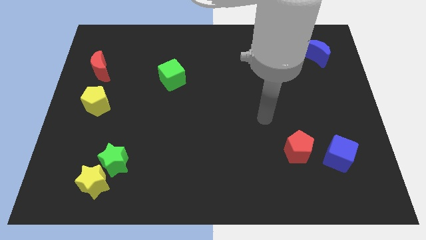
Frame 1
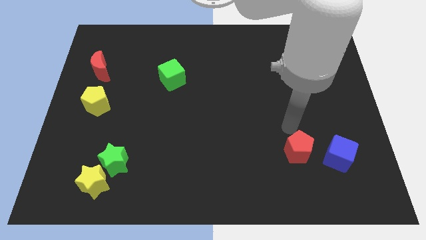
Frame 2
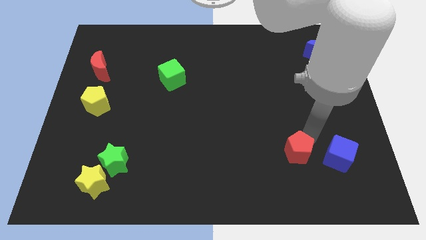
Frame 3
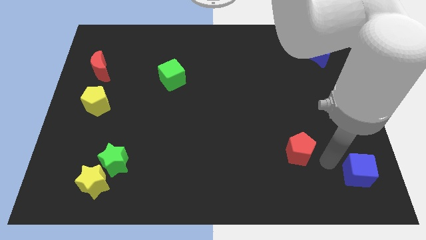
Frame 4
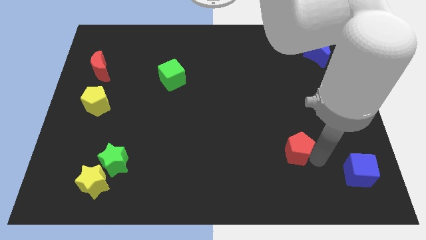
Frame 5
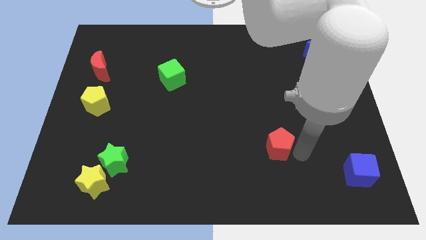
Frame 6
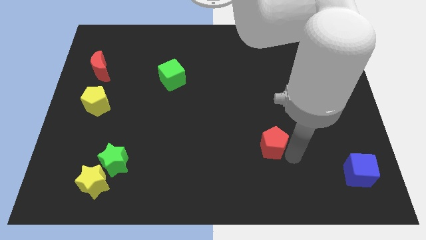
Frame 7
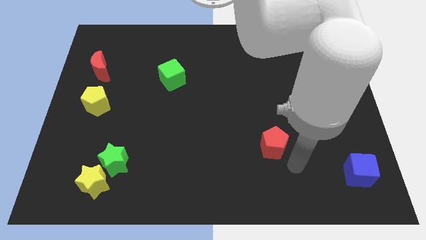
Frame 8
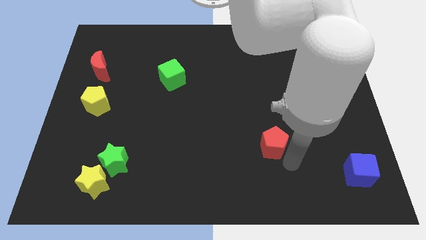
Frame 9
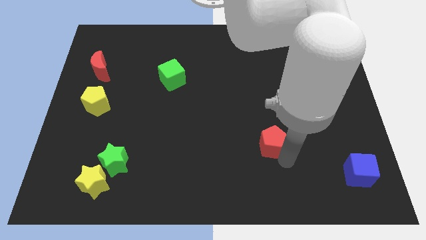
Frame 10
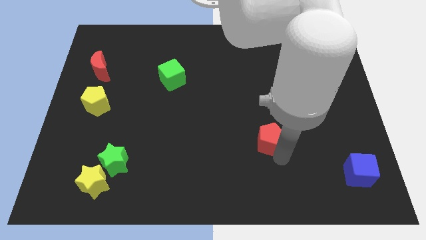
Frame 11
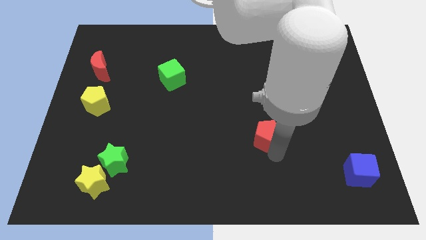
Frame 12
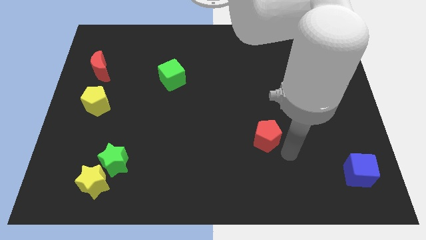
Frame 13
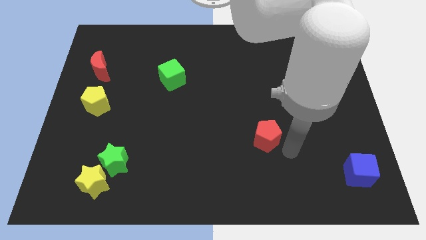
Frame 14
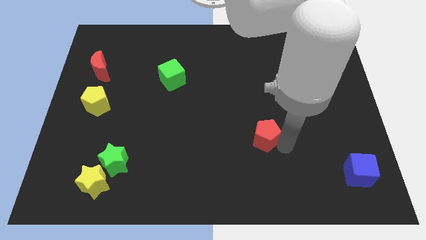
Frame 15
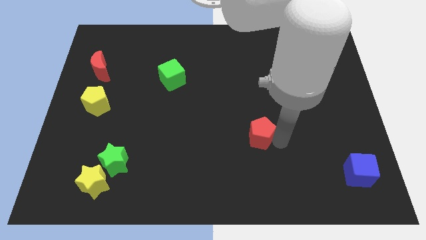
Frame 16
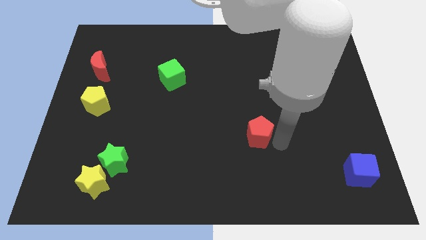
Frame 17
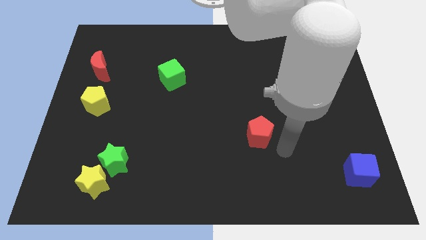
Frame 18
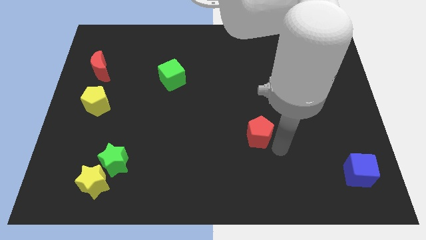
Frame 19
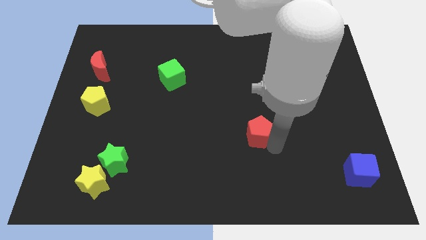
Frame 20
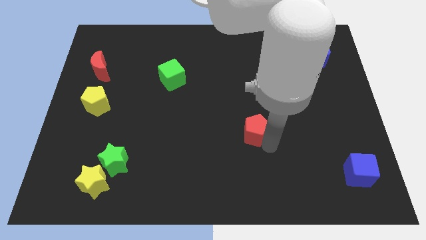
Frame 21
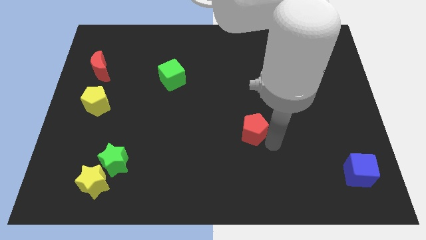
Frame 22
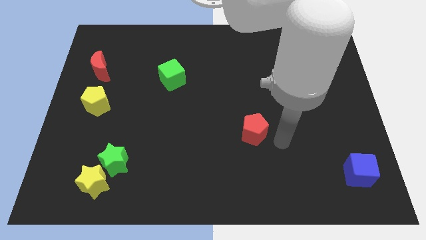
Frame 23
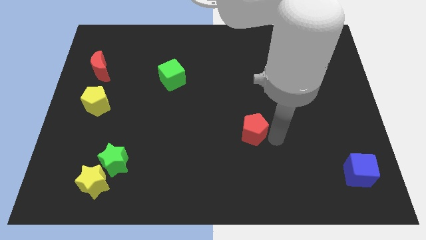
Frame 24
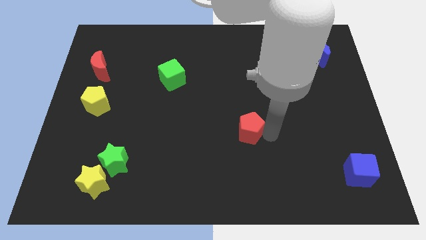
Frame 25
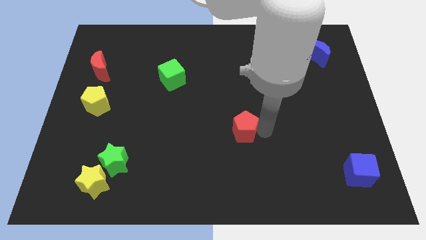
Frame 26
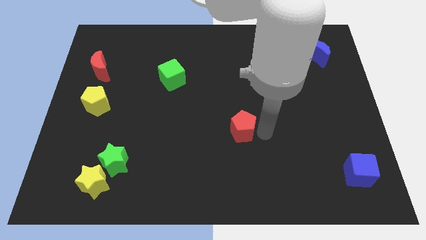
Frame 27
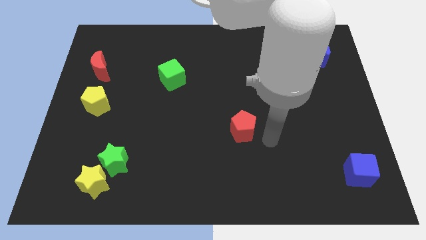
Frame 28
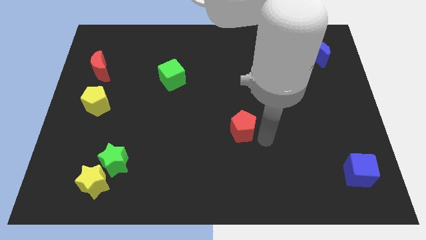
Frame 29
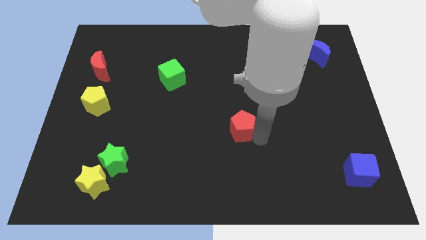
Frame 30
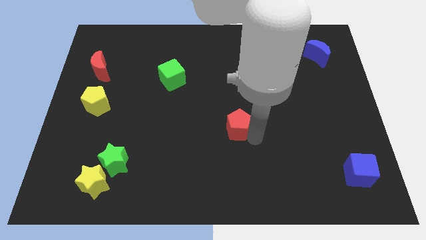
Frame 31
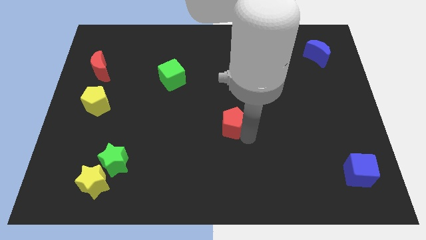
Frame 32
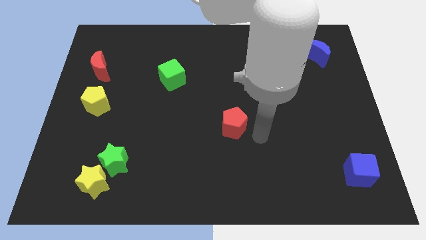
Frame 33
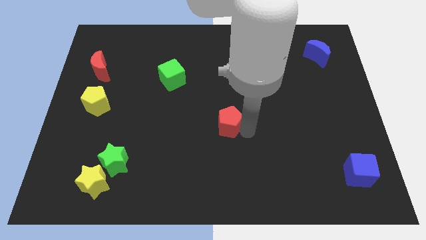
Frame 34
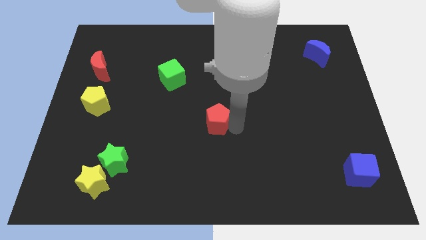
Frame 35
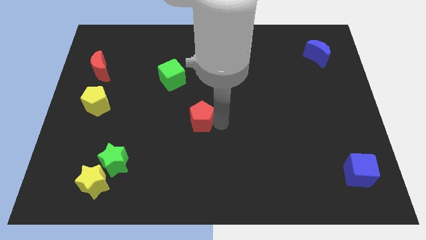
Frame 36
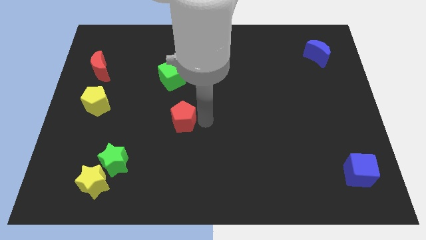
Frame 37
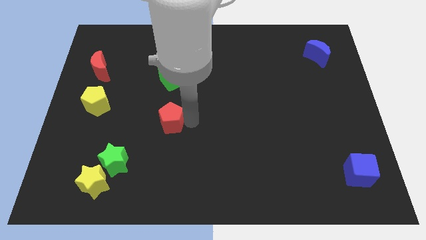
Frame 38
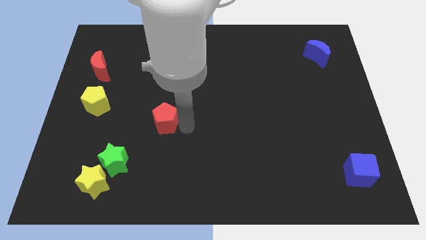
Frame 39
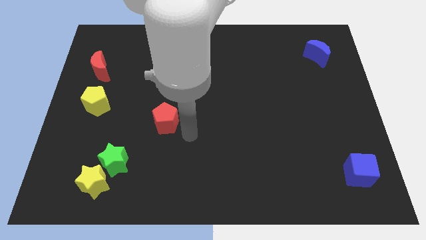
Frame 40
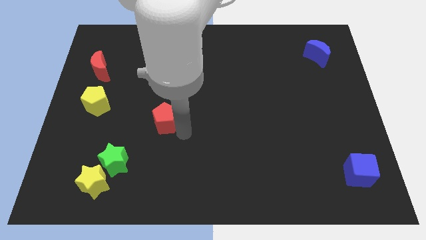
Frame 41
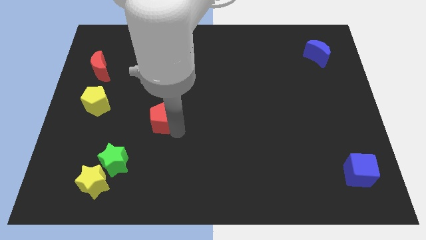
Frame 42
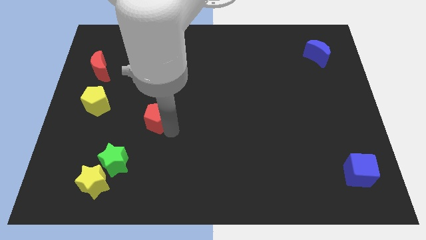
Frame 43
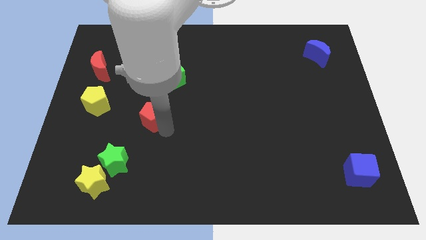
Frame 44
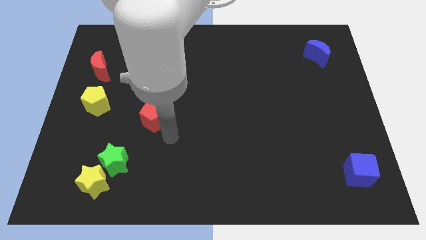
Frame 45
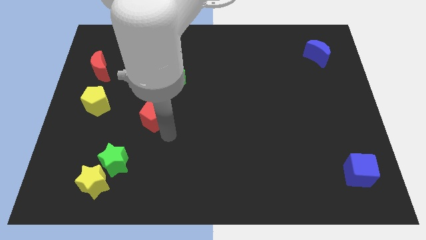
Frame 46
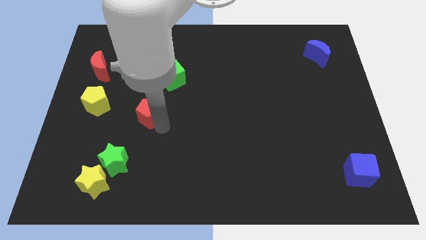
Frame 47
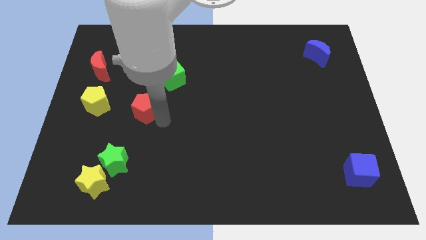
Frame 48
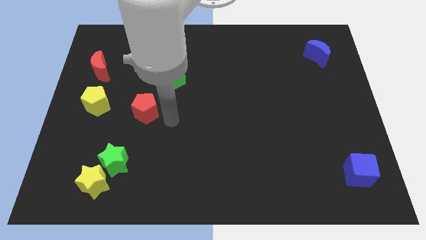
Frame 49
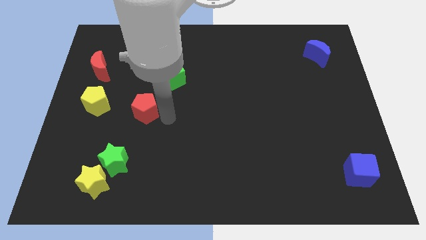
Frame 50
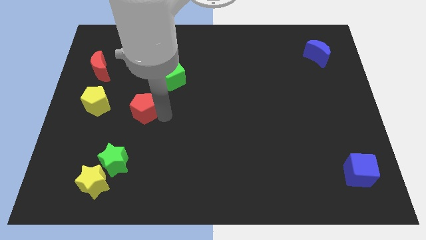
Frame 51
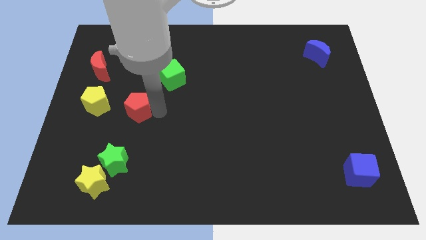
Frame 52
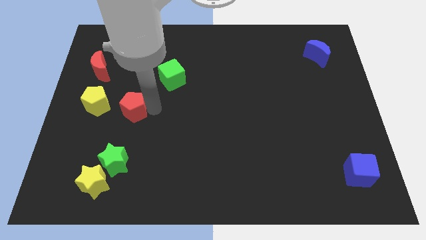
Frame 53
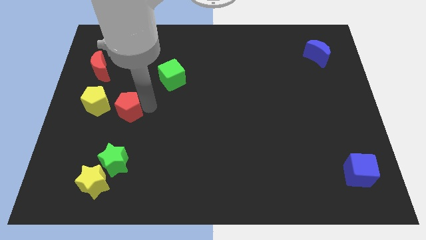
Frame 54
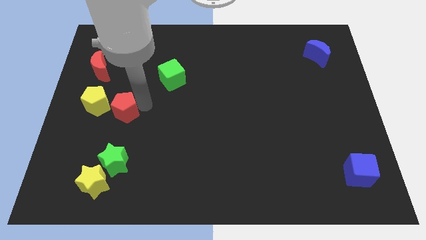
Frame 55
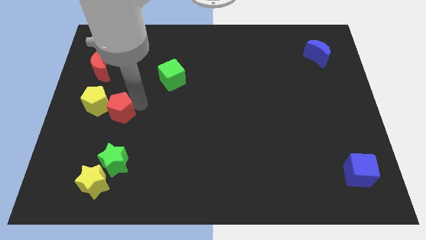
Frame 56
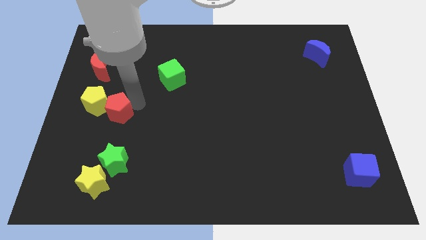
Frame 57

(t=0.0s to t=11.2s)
push the red pentagon to the yellow pentagon
